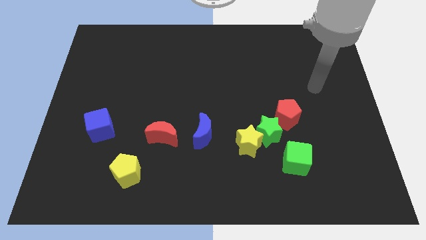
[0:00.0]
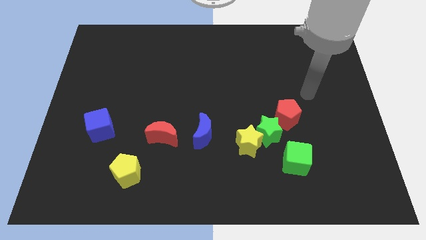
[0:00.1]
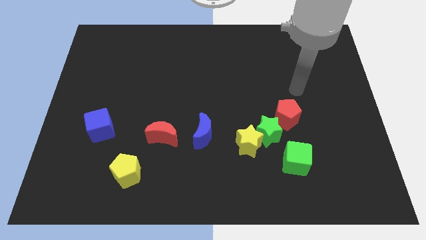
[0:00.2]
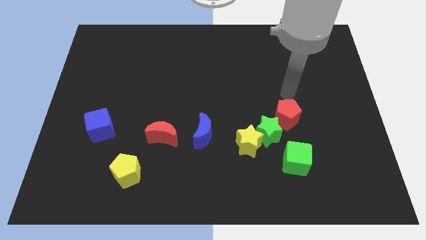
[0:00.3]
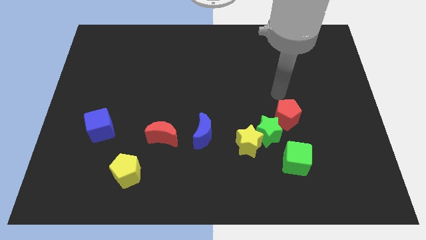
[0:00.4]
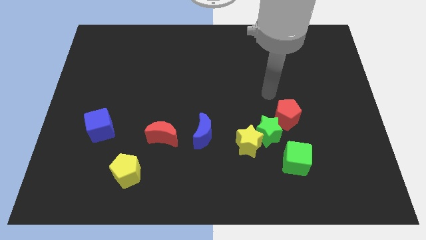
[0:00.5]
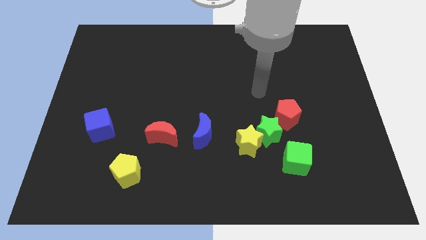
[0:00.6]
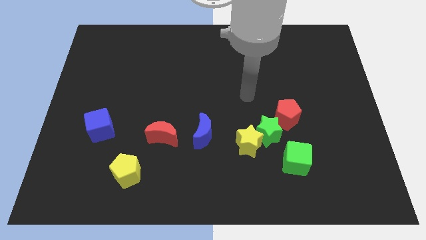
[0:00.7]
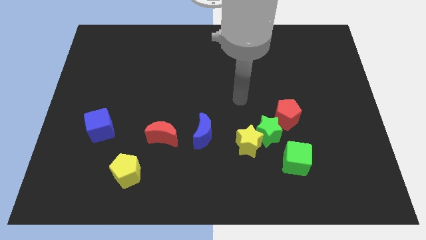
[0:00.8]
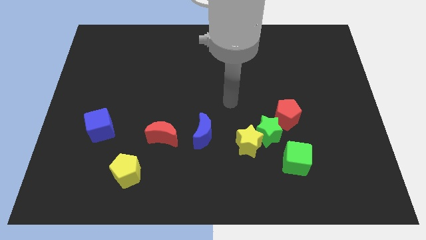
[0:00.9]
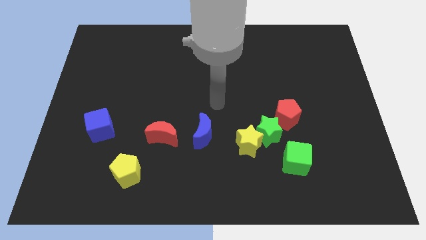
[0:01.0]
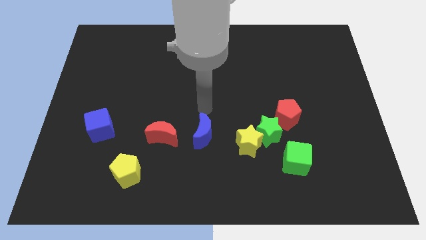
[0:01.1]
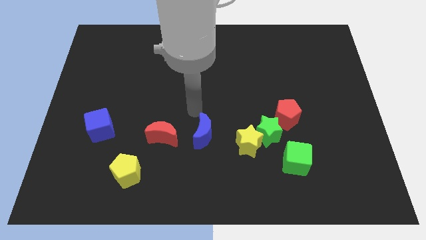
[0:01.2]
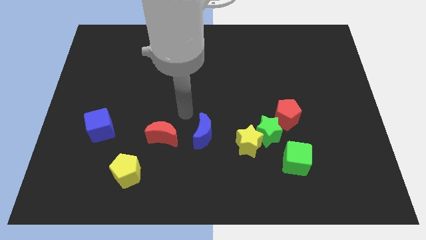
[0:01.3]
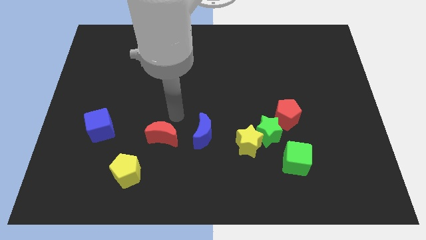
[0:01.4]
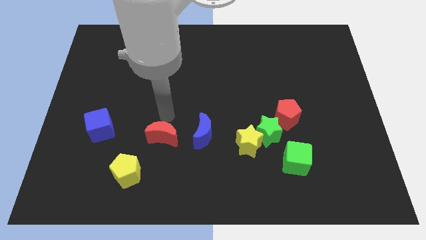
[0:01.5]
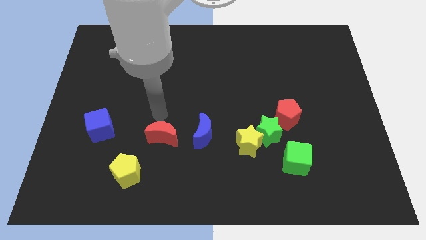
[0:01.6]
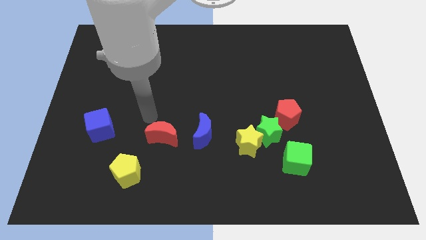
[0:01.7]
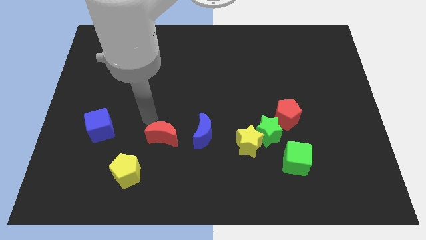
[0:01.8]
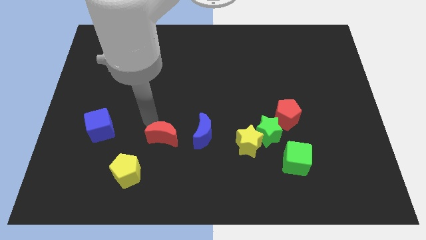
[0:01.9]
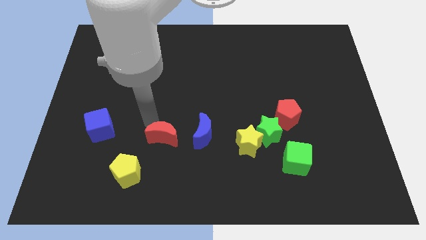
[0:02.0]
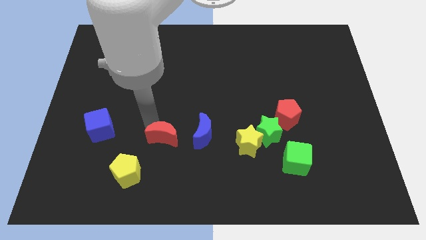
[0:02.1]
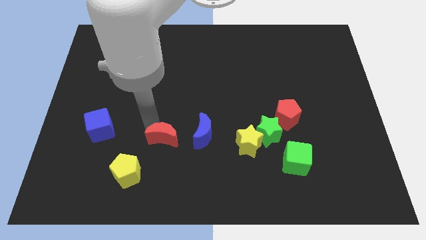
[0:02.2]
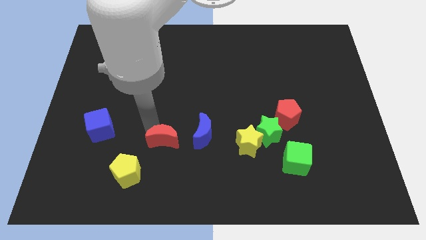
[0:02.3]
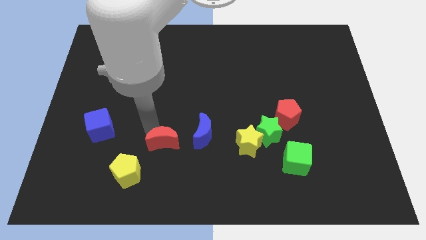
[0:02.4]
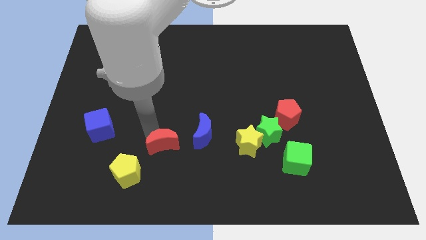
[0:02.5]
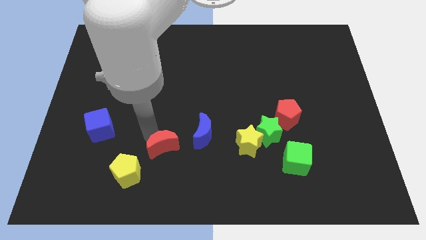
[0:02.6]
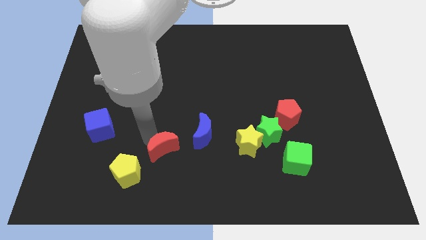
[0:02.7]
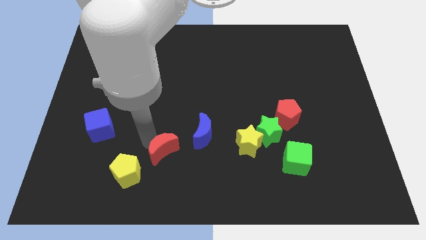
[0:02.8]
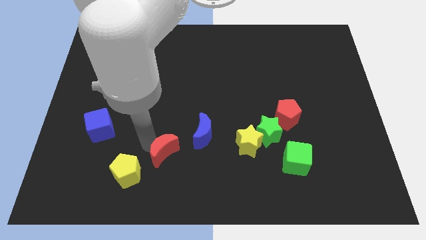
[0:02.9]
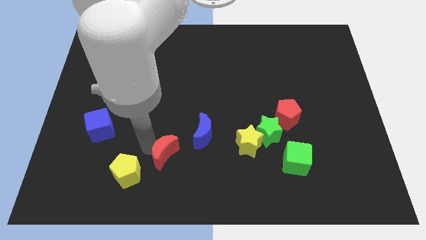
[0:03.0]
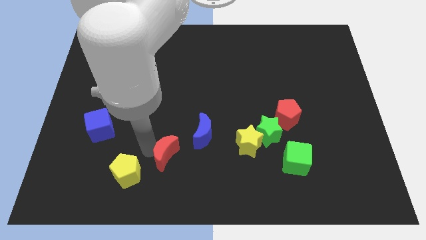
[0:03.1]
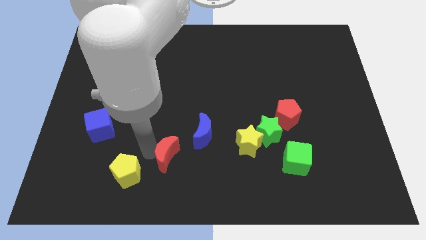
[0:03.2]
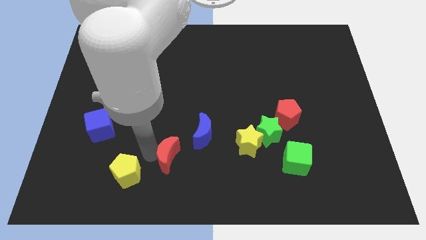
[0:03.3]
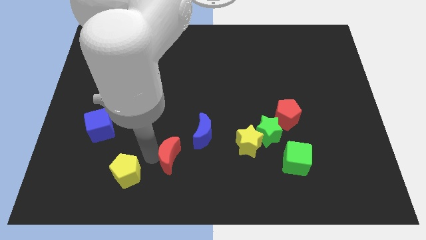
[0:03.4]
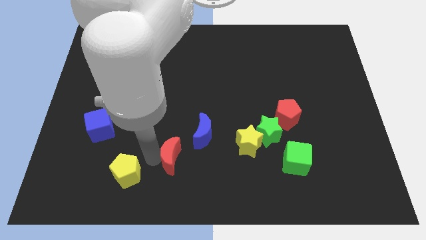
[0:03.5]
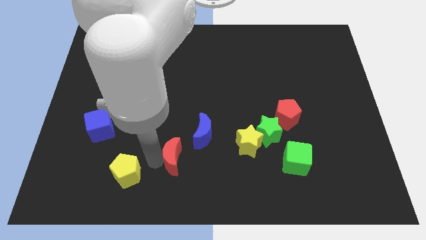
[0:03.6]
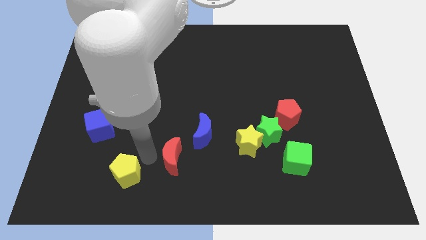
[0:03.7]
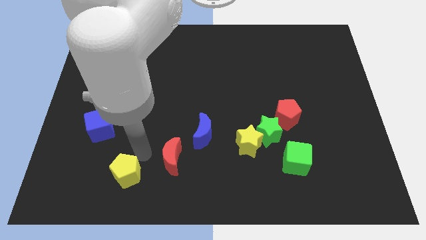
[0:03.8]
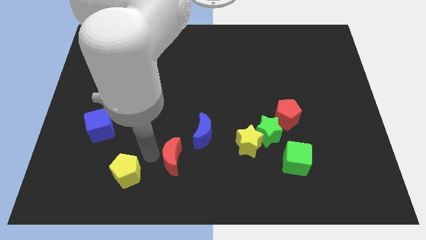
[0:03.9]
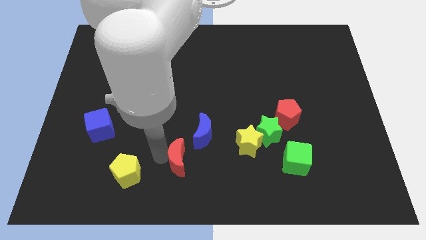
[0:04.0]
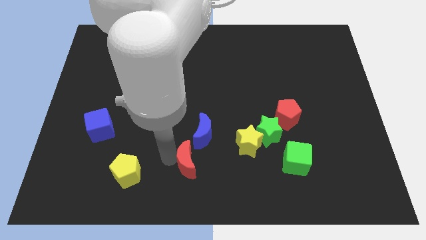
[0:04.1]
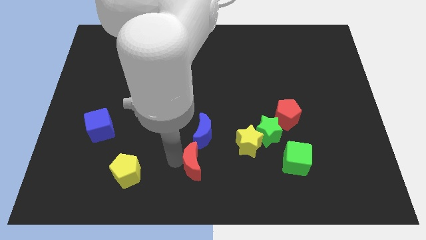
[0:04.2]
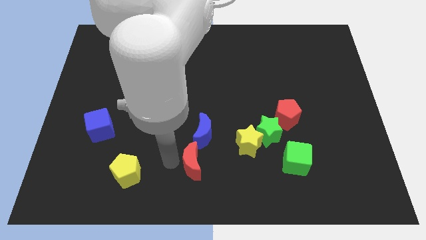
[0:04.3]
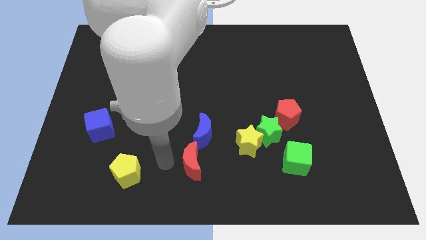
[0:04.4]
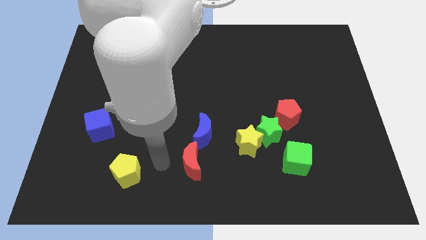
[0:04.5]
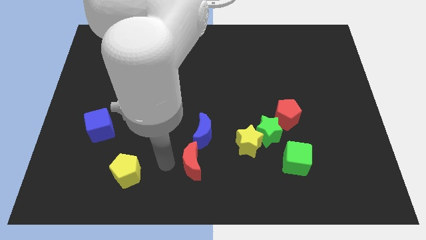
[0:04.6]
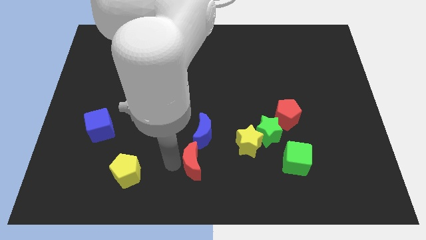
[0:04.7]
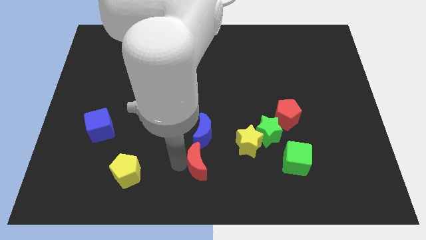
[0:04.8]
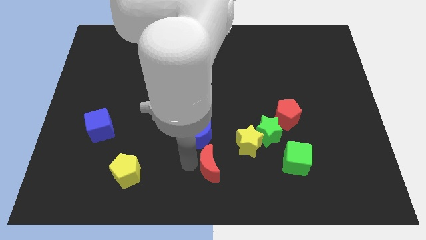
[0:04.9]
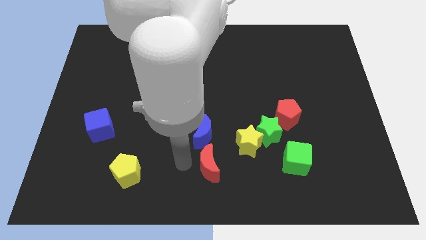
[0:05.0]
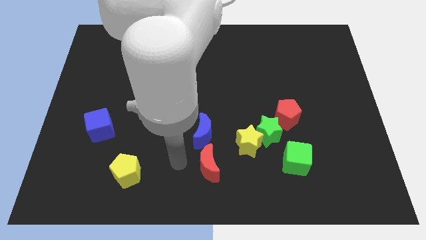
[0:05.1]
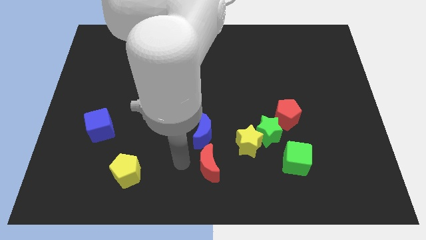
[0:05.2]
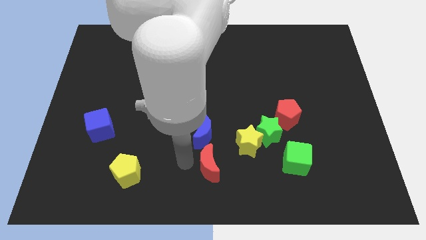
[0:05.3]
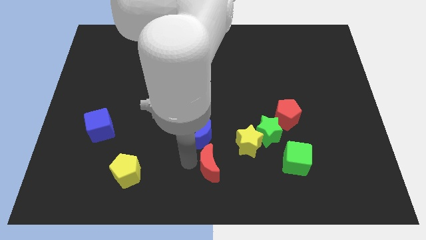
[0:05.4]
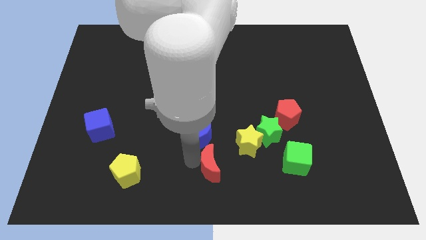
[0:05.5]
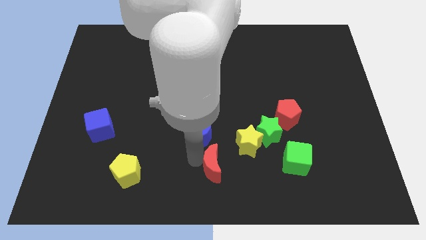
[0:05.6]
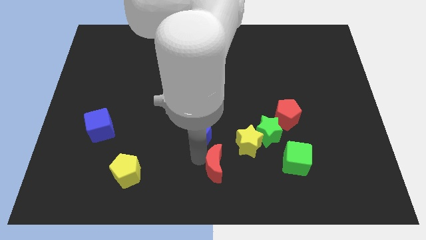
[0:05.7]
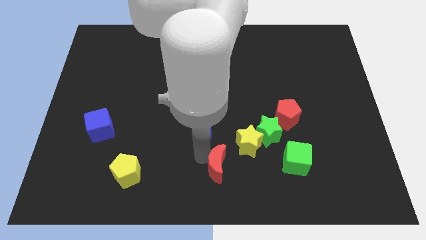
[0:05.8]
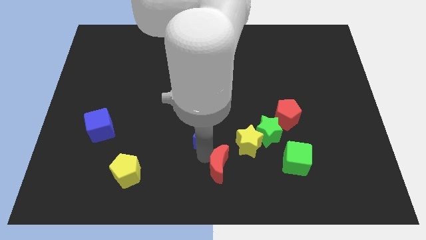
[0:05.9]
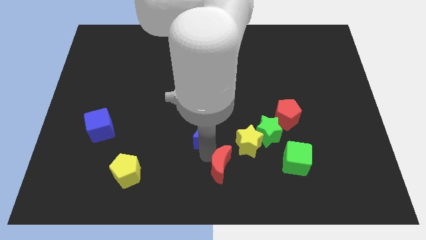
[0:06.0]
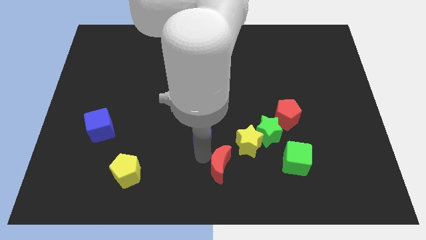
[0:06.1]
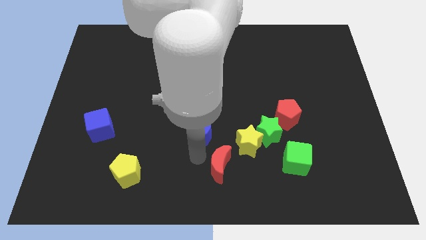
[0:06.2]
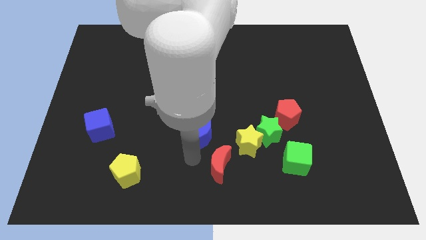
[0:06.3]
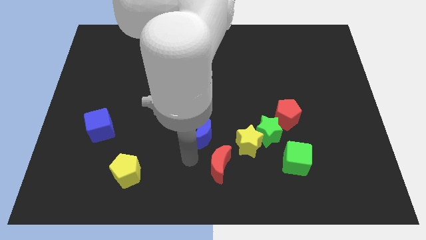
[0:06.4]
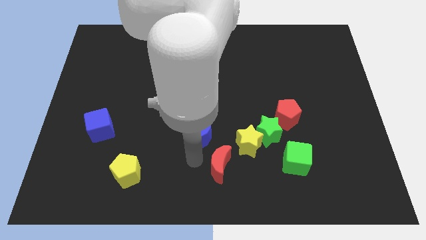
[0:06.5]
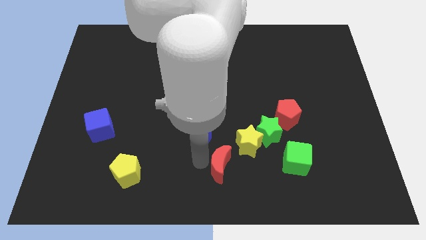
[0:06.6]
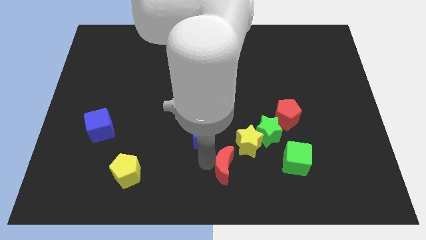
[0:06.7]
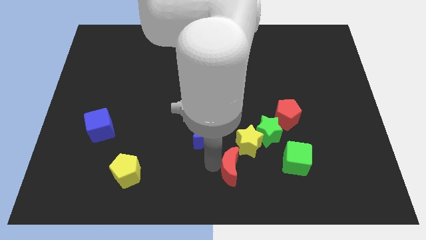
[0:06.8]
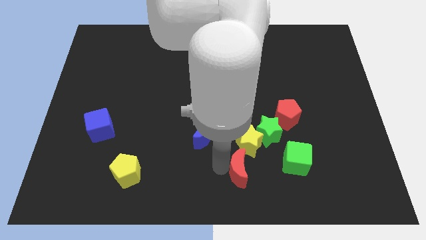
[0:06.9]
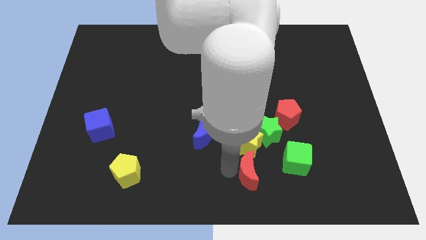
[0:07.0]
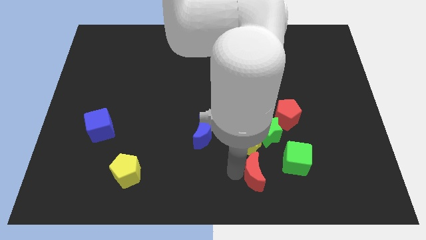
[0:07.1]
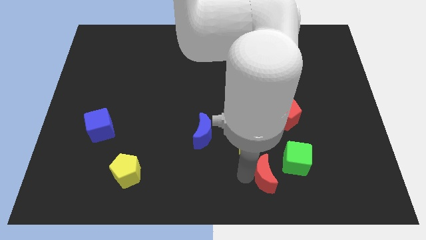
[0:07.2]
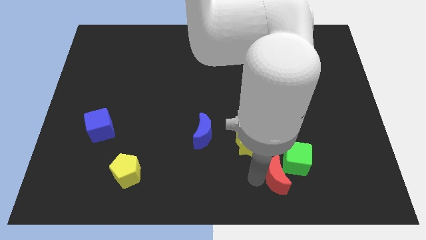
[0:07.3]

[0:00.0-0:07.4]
slide the red moon to the green cube
